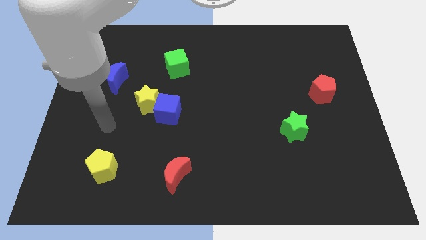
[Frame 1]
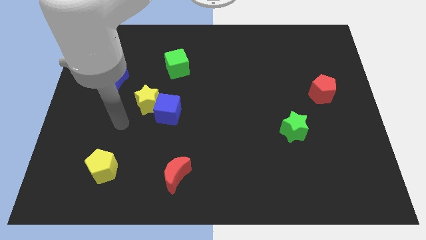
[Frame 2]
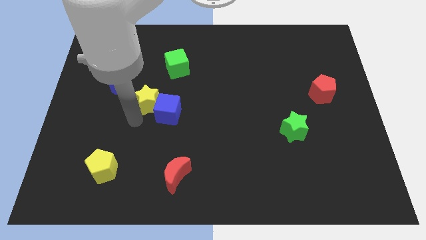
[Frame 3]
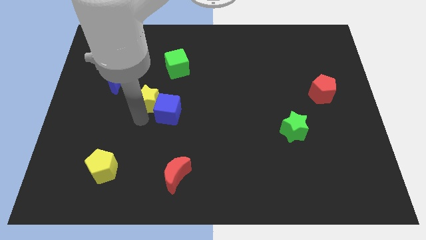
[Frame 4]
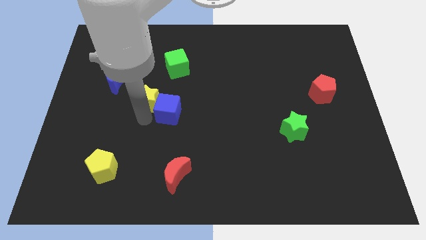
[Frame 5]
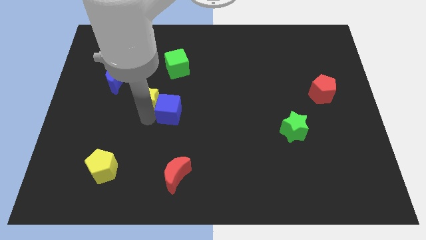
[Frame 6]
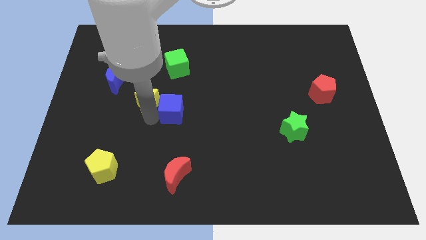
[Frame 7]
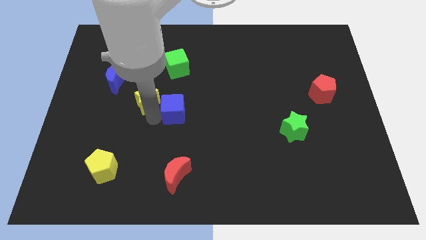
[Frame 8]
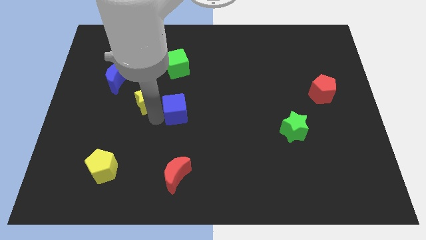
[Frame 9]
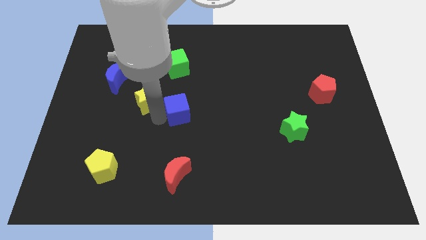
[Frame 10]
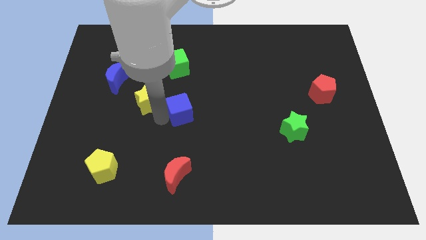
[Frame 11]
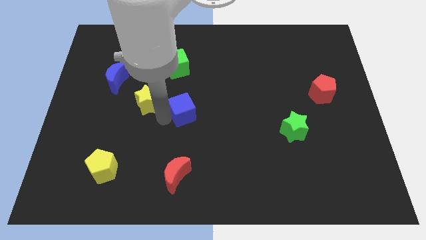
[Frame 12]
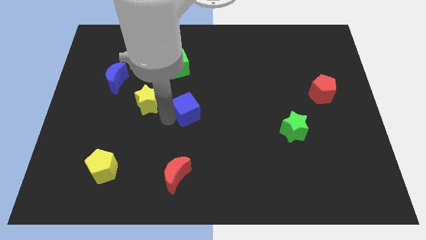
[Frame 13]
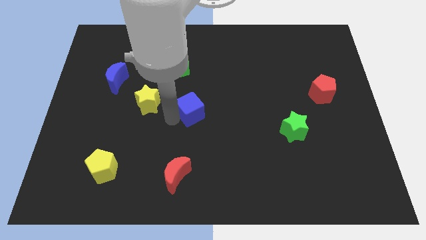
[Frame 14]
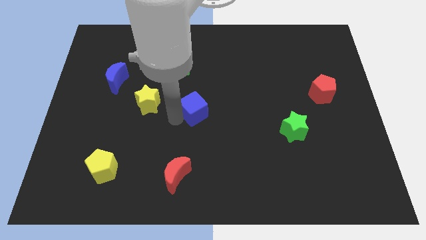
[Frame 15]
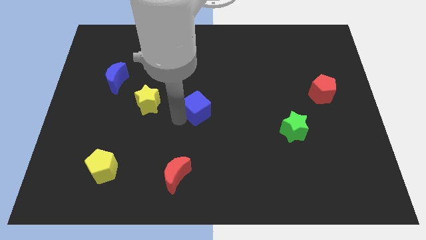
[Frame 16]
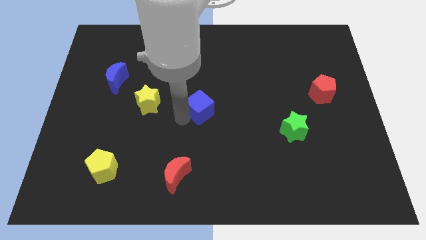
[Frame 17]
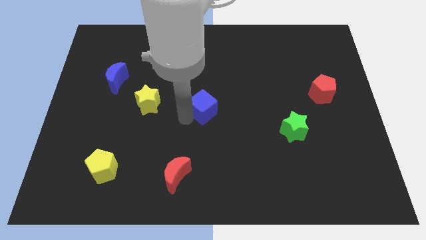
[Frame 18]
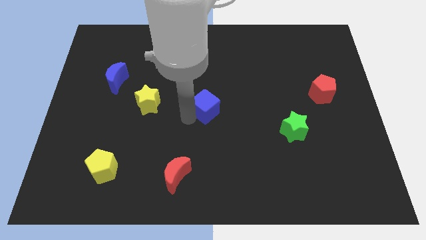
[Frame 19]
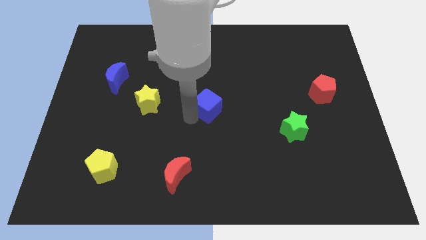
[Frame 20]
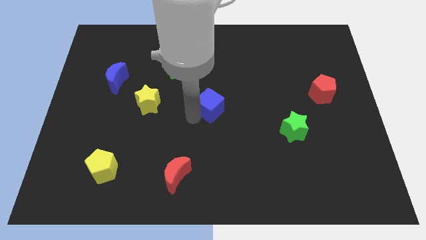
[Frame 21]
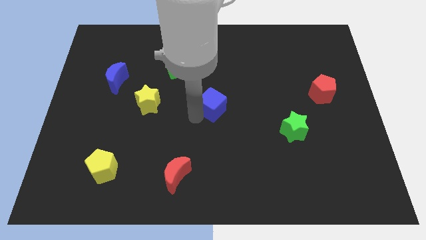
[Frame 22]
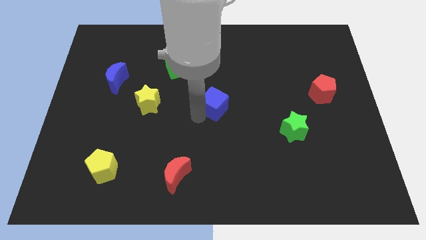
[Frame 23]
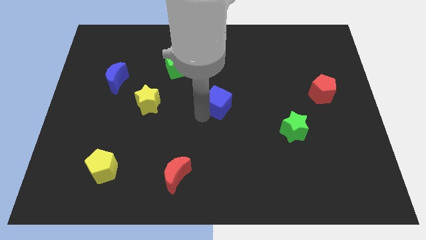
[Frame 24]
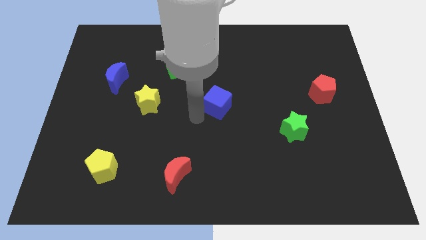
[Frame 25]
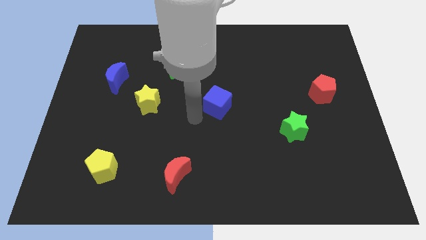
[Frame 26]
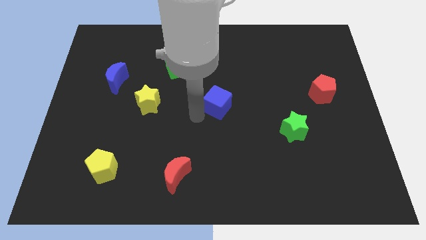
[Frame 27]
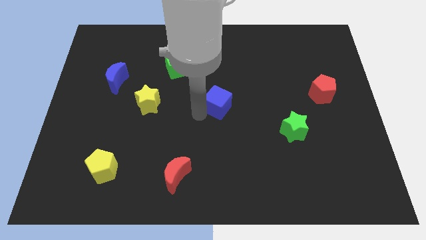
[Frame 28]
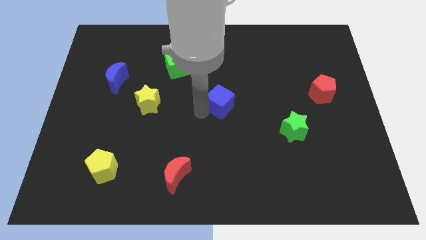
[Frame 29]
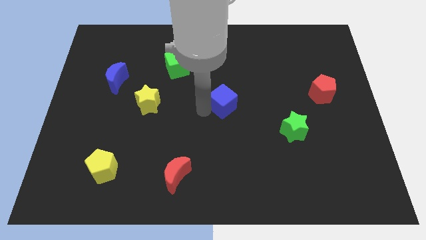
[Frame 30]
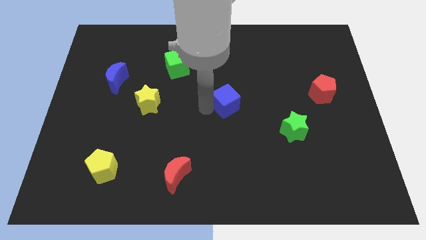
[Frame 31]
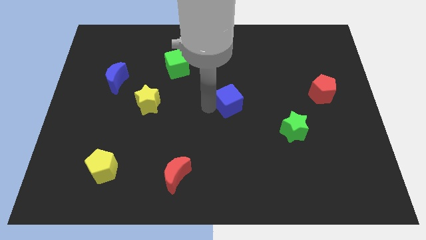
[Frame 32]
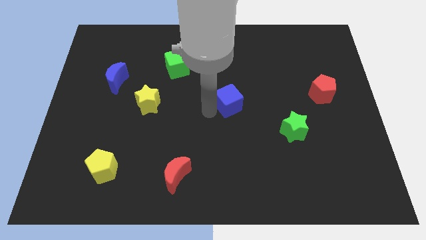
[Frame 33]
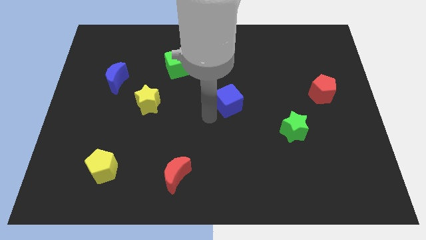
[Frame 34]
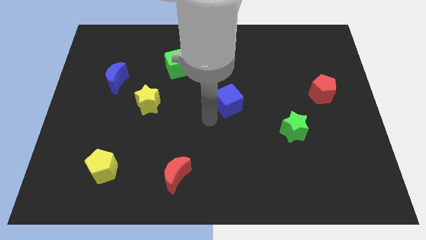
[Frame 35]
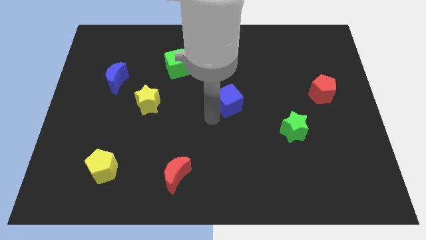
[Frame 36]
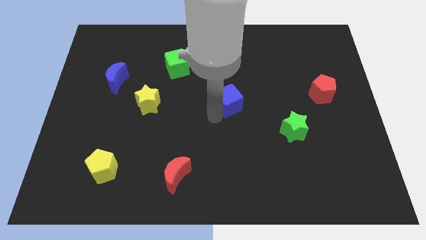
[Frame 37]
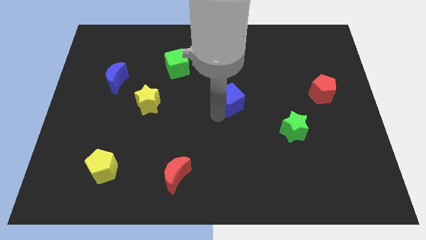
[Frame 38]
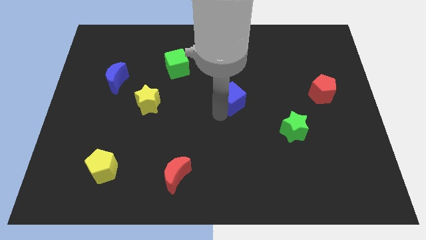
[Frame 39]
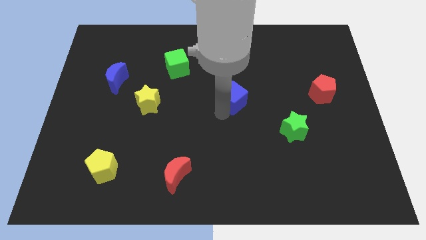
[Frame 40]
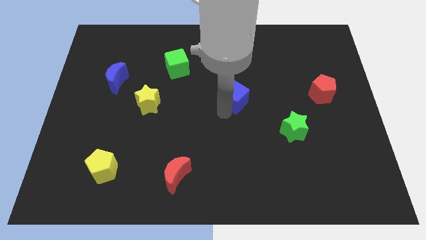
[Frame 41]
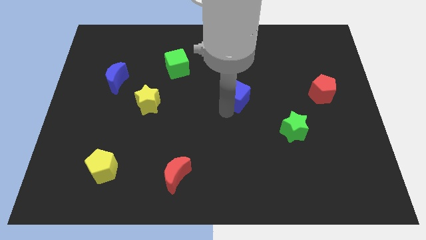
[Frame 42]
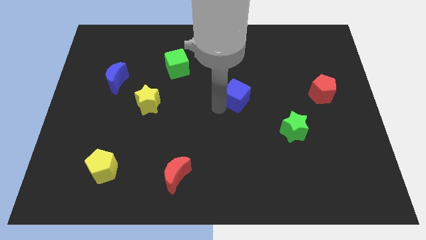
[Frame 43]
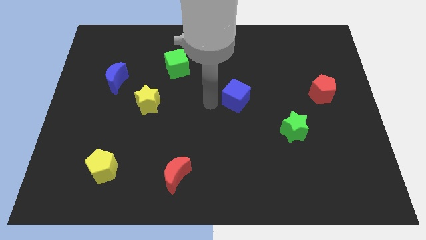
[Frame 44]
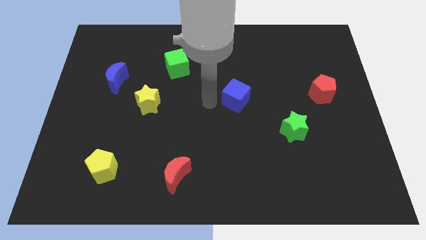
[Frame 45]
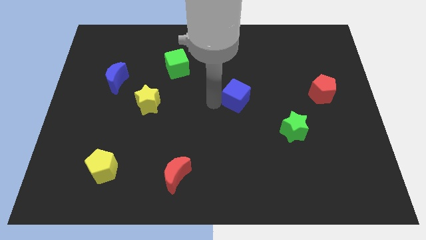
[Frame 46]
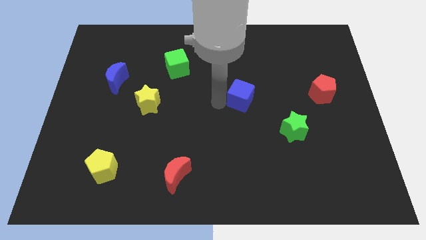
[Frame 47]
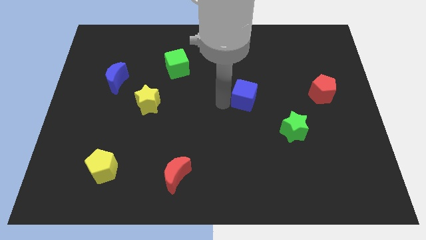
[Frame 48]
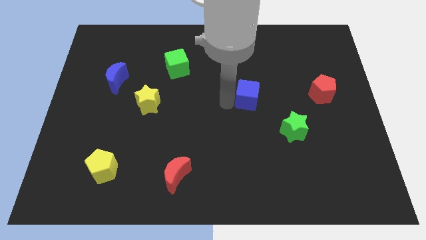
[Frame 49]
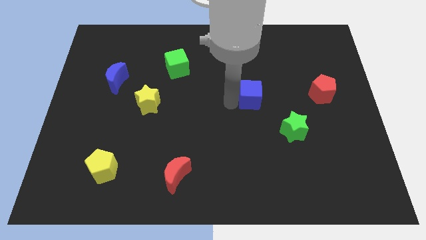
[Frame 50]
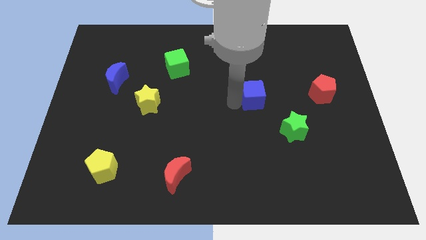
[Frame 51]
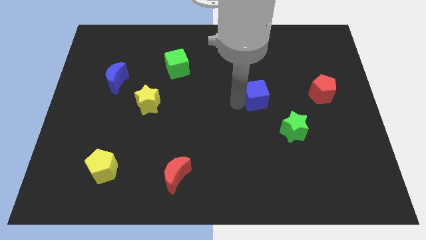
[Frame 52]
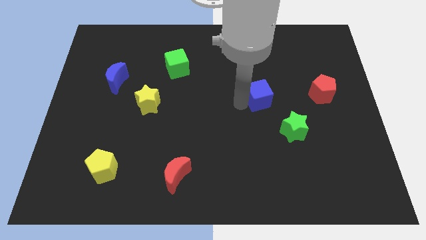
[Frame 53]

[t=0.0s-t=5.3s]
put the blue cube to the left side of the red pentagon

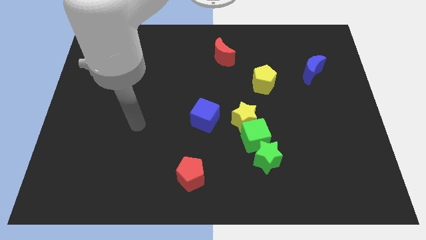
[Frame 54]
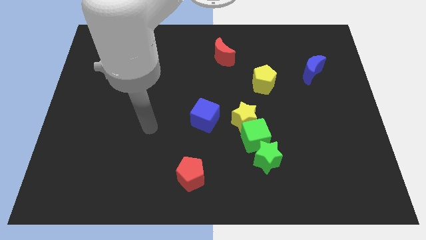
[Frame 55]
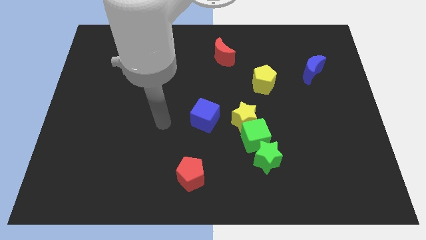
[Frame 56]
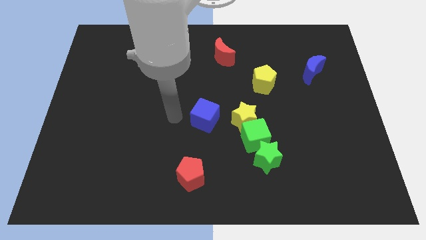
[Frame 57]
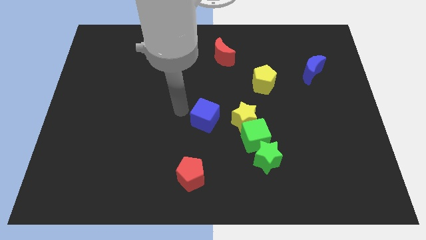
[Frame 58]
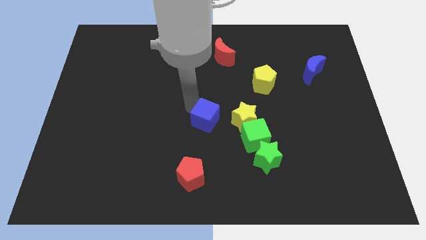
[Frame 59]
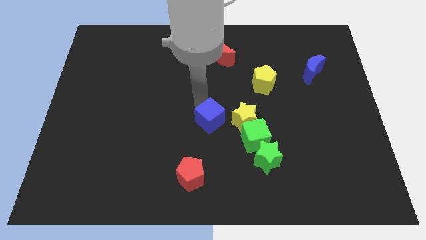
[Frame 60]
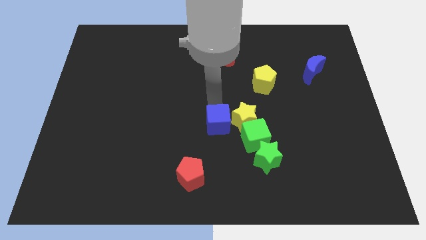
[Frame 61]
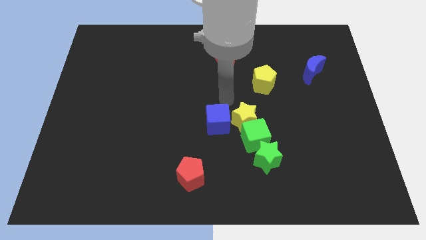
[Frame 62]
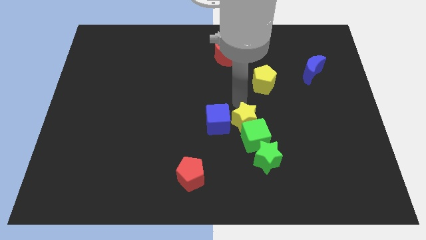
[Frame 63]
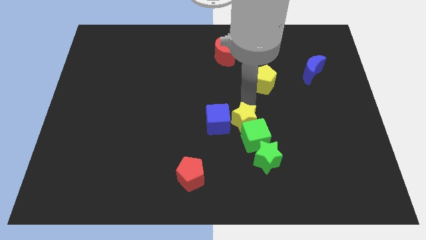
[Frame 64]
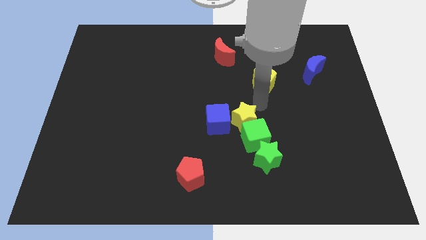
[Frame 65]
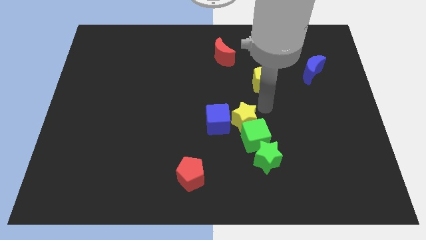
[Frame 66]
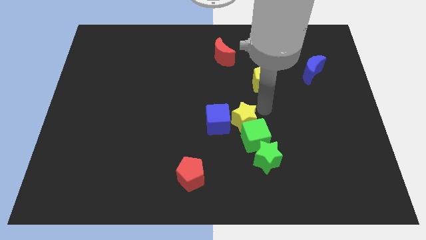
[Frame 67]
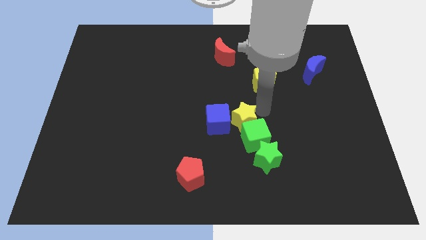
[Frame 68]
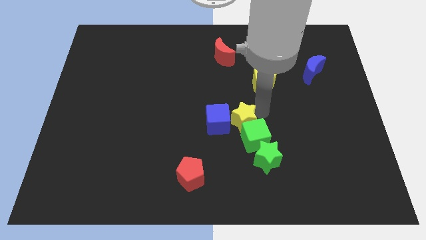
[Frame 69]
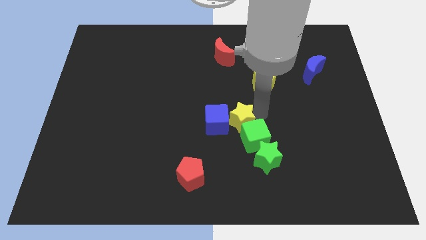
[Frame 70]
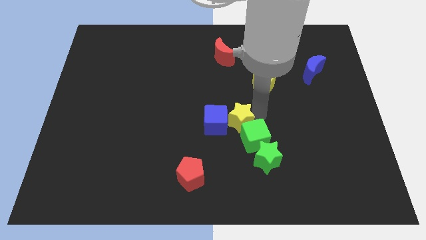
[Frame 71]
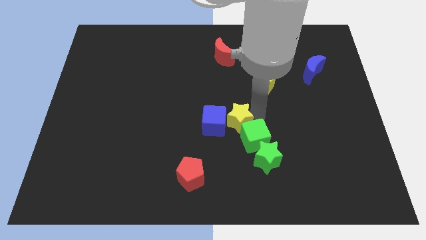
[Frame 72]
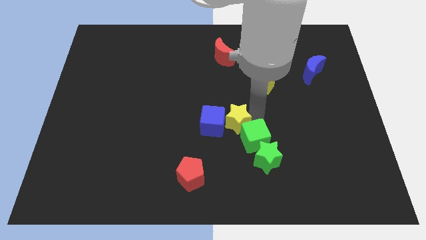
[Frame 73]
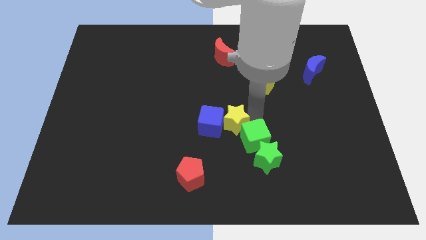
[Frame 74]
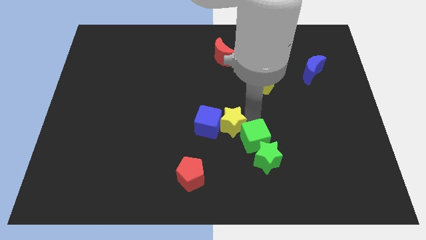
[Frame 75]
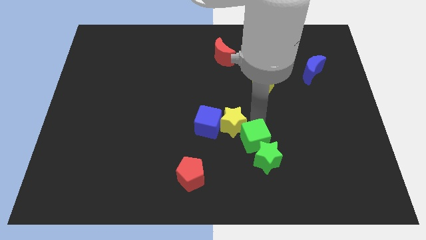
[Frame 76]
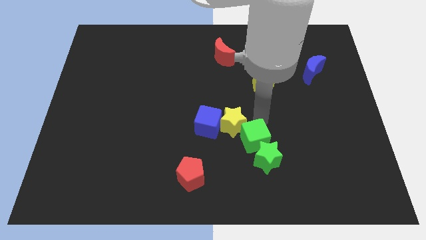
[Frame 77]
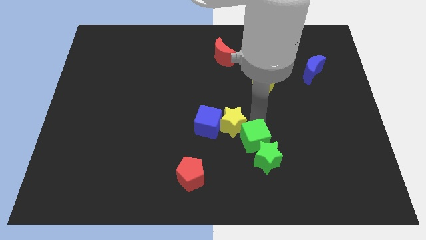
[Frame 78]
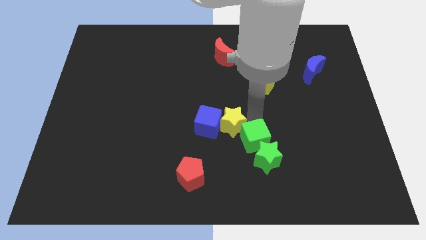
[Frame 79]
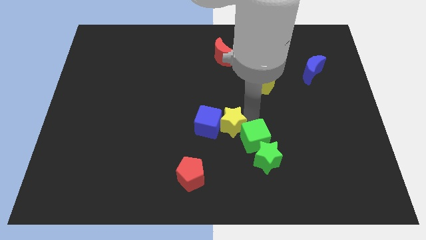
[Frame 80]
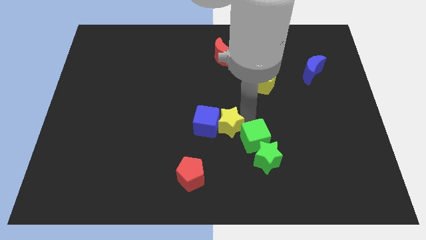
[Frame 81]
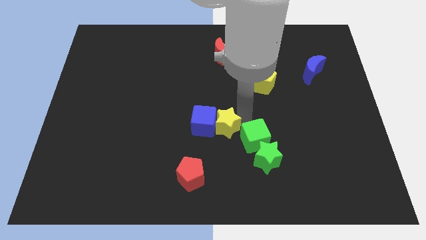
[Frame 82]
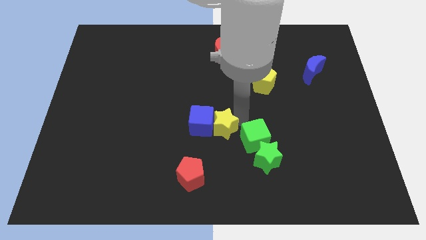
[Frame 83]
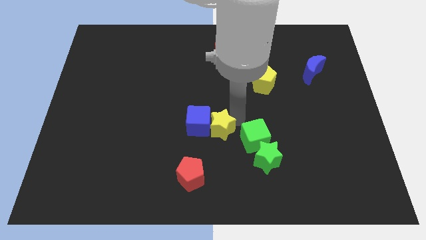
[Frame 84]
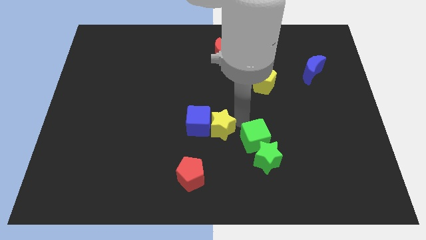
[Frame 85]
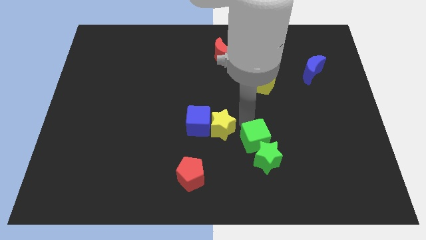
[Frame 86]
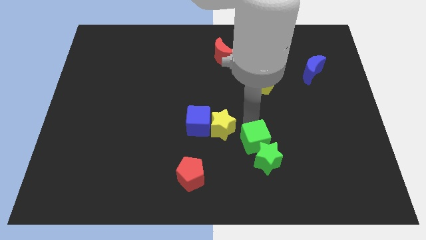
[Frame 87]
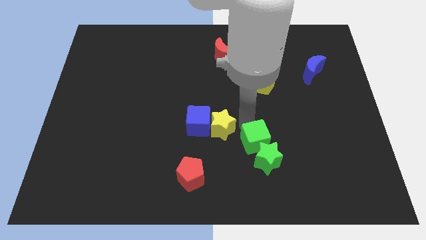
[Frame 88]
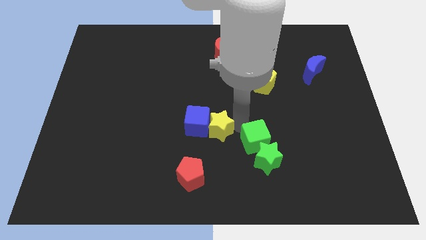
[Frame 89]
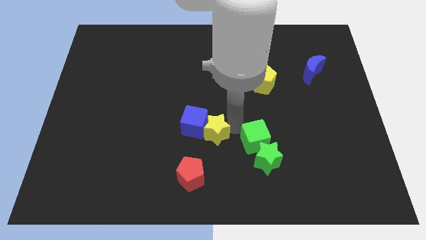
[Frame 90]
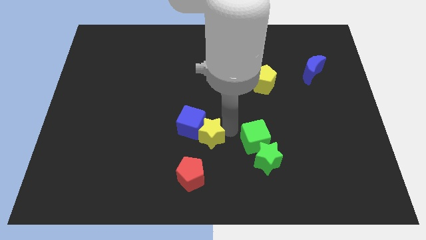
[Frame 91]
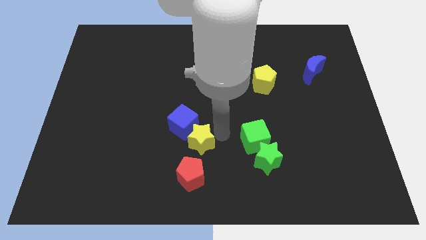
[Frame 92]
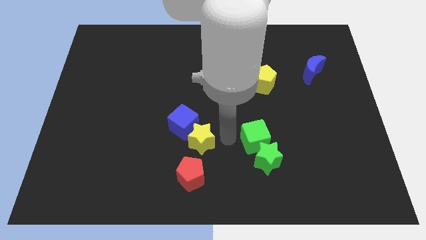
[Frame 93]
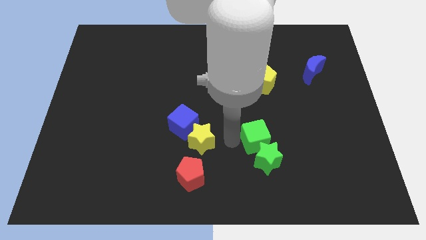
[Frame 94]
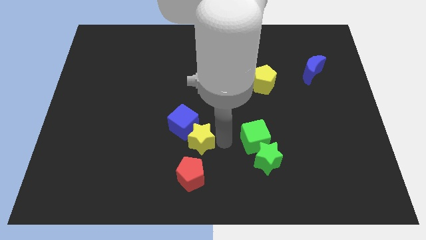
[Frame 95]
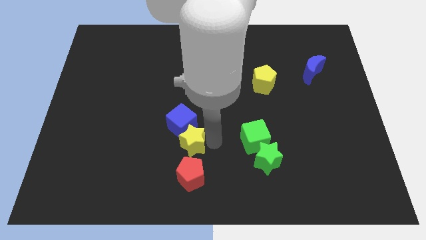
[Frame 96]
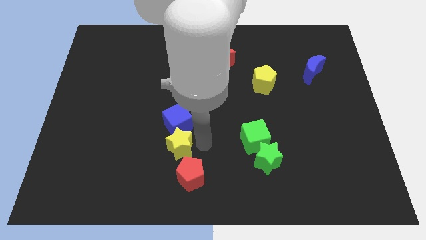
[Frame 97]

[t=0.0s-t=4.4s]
put the yellow star diagonally down and to the left of the blue cube
